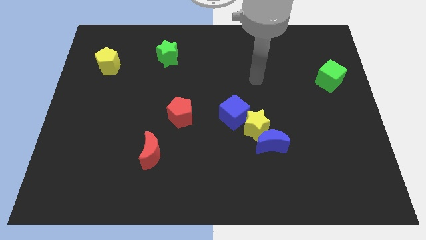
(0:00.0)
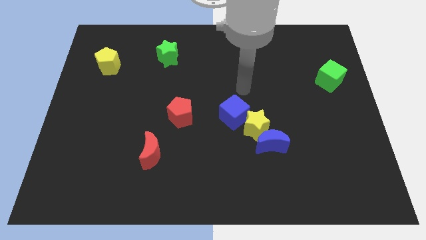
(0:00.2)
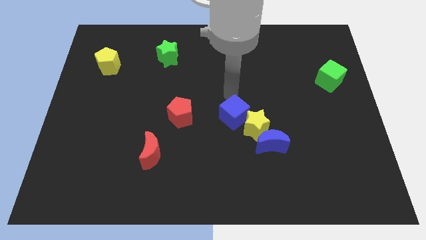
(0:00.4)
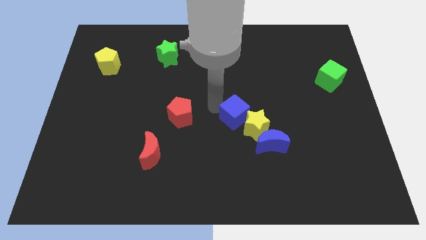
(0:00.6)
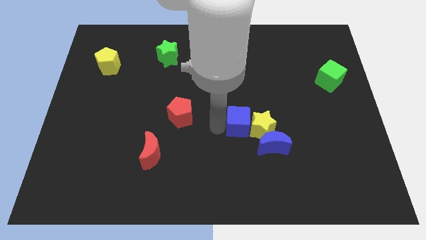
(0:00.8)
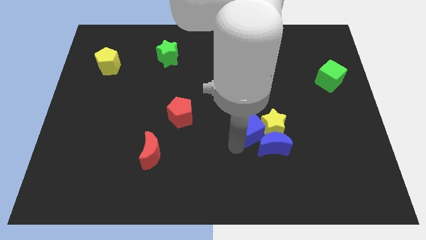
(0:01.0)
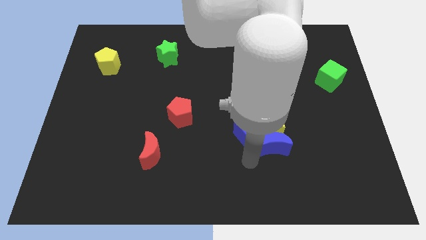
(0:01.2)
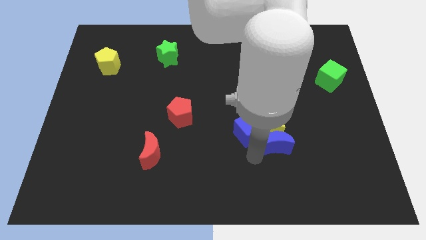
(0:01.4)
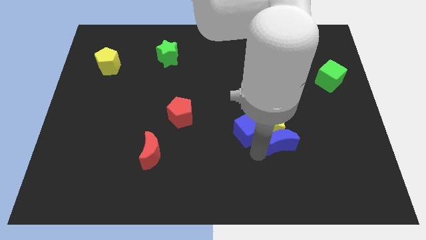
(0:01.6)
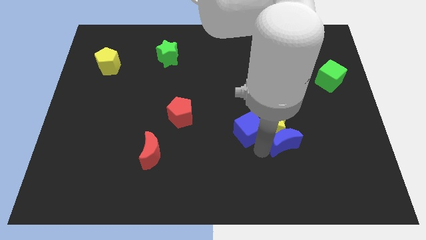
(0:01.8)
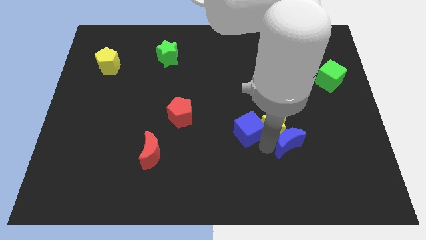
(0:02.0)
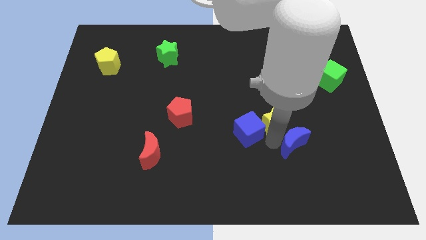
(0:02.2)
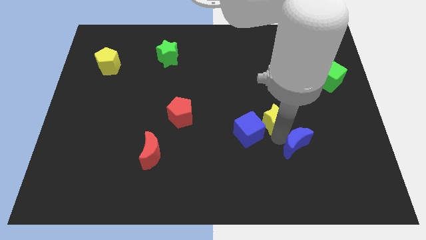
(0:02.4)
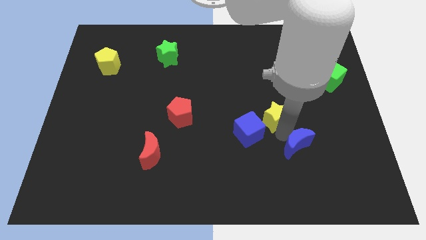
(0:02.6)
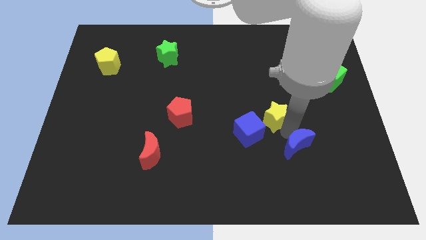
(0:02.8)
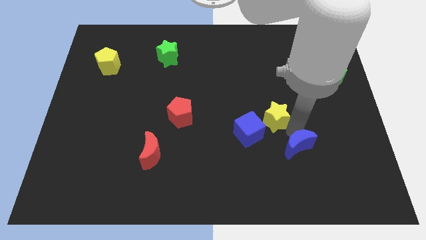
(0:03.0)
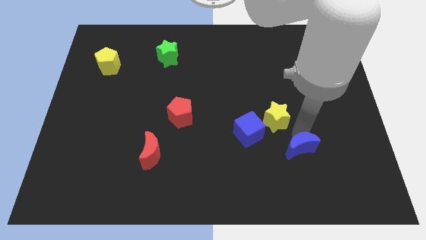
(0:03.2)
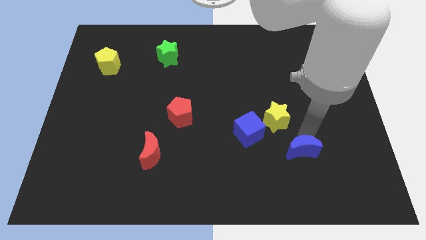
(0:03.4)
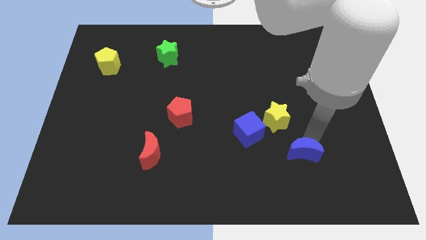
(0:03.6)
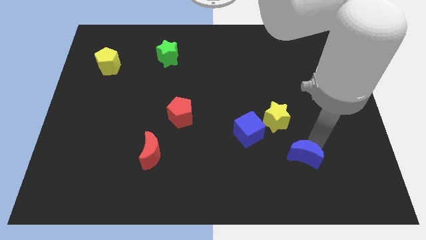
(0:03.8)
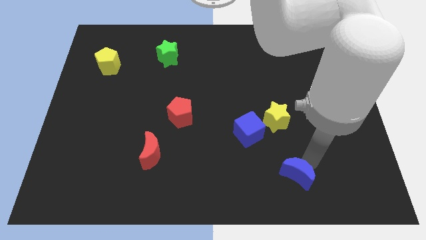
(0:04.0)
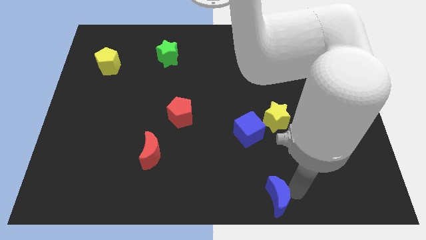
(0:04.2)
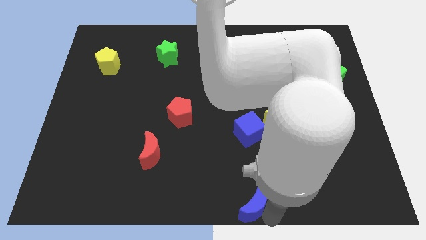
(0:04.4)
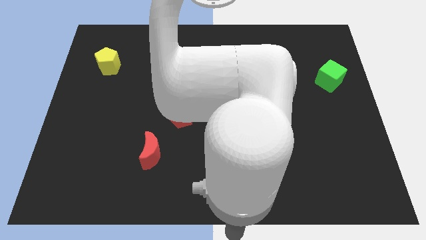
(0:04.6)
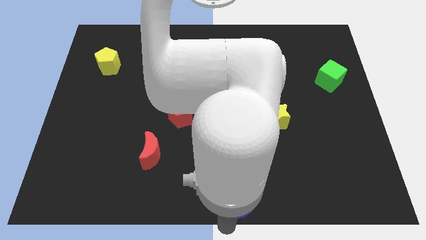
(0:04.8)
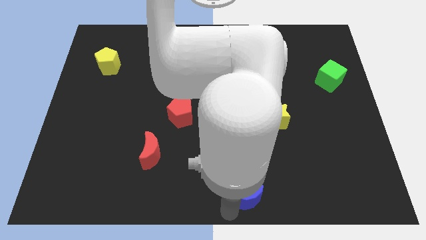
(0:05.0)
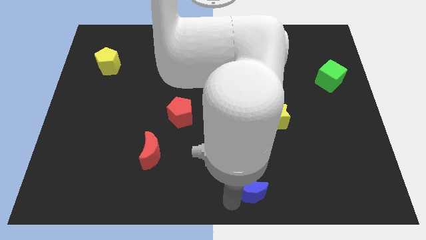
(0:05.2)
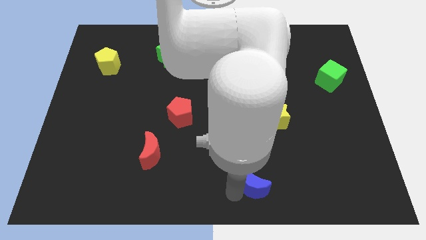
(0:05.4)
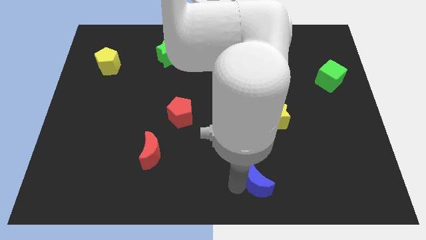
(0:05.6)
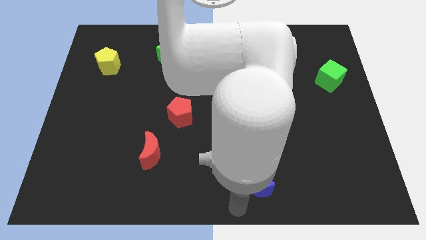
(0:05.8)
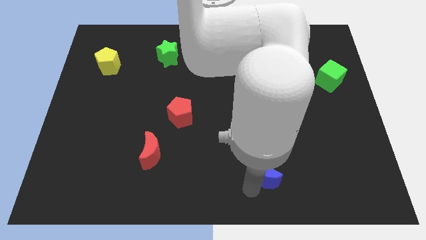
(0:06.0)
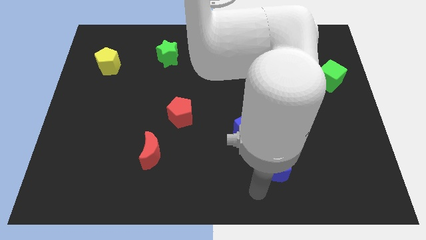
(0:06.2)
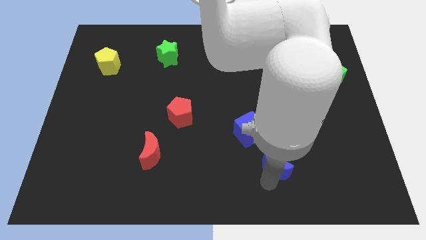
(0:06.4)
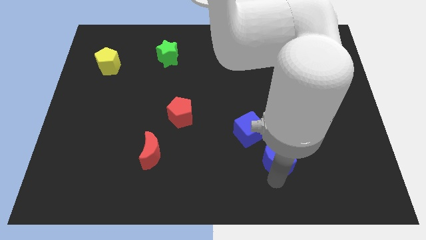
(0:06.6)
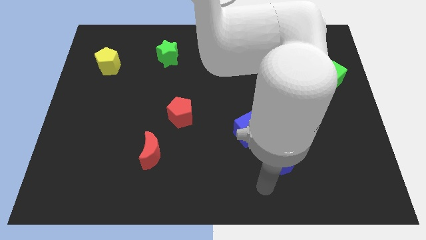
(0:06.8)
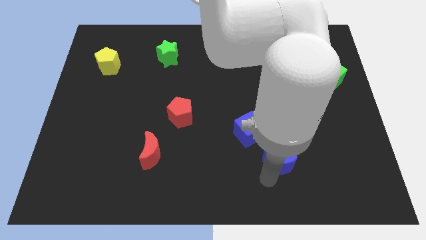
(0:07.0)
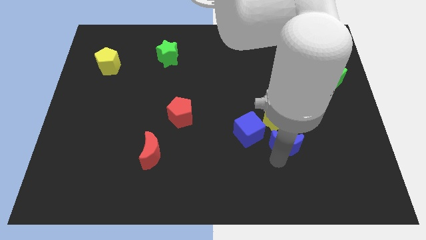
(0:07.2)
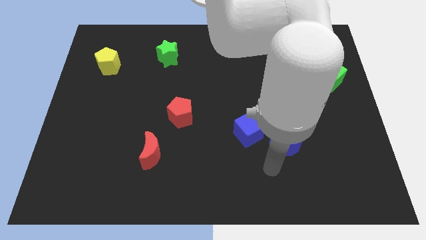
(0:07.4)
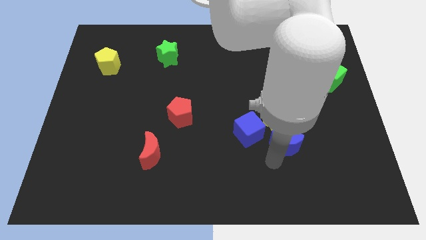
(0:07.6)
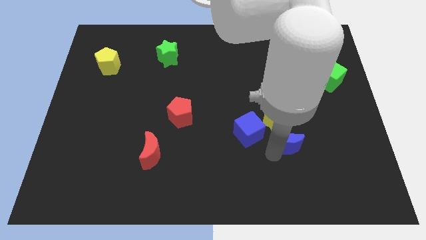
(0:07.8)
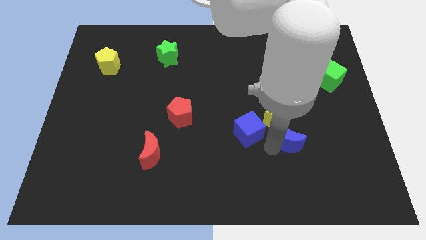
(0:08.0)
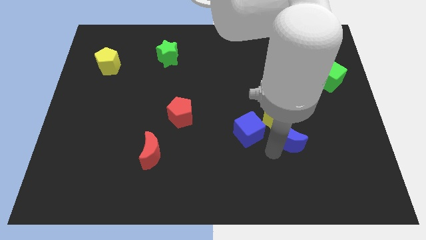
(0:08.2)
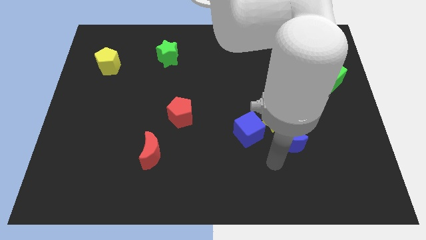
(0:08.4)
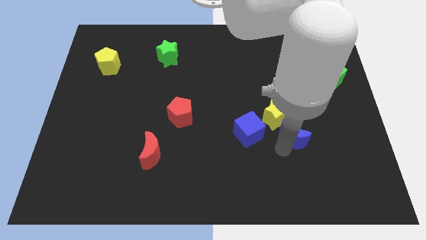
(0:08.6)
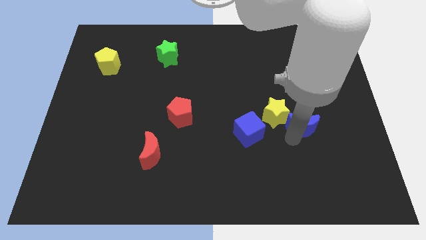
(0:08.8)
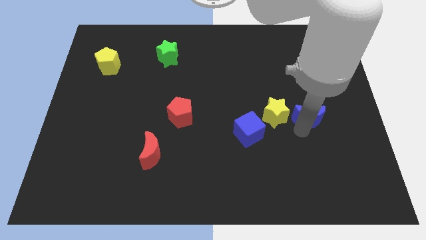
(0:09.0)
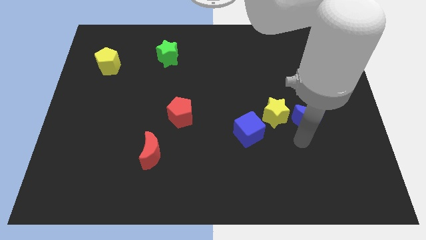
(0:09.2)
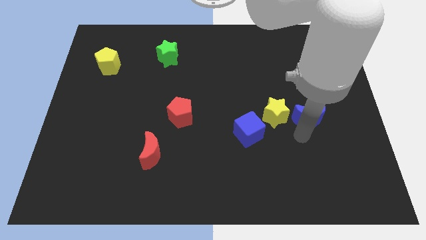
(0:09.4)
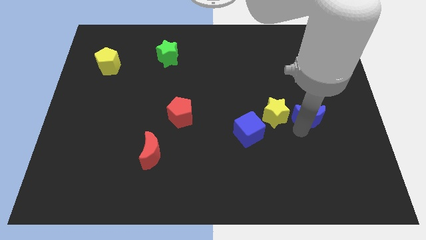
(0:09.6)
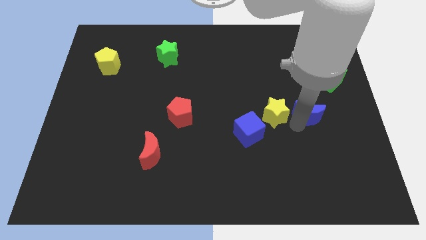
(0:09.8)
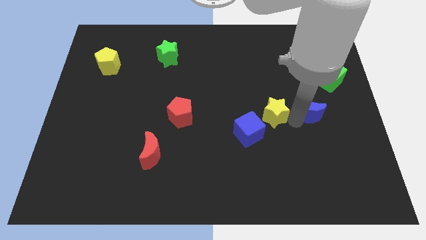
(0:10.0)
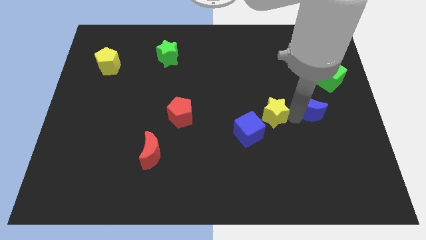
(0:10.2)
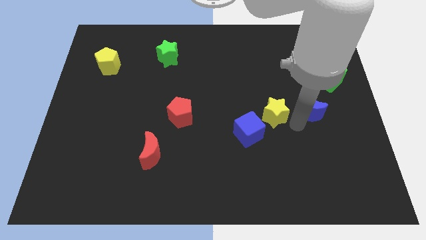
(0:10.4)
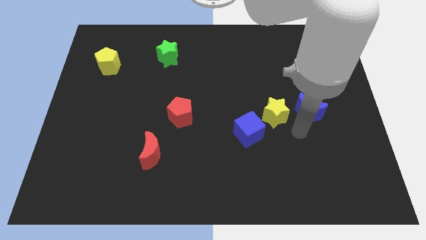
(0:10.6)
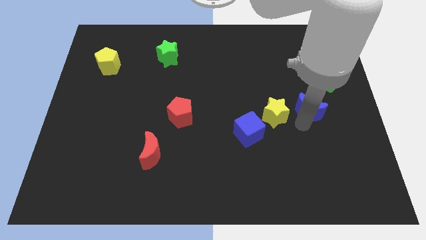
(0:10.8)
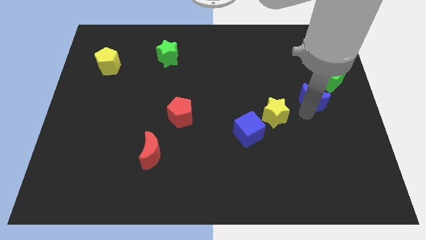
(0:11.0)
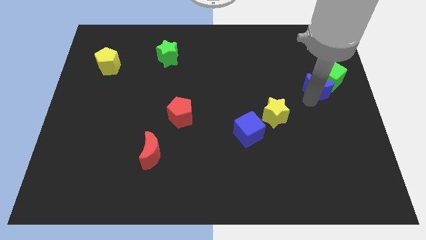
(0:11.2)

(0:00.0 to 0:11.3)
move the blue moon close to the green cube

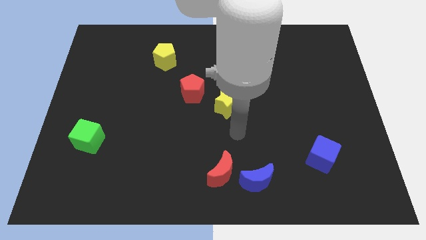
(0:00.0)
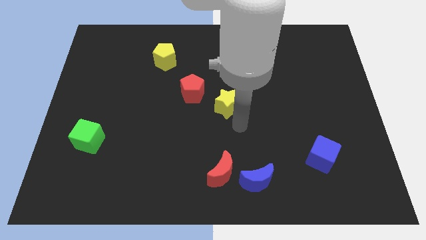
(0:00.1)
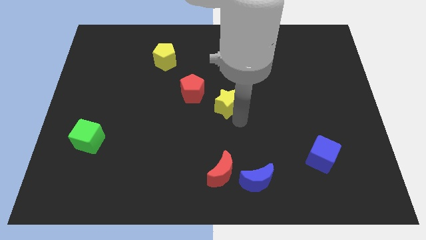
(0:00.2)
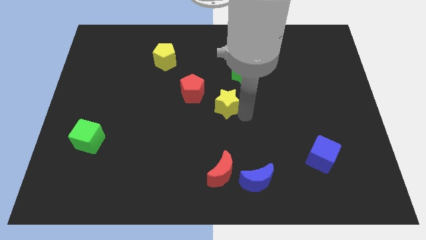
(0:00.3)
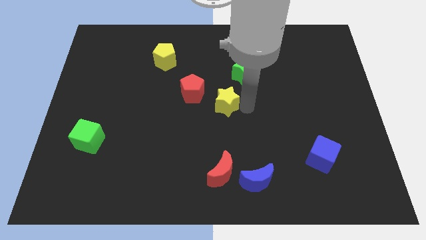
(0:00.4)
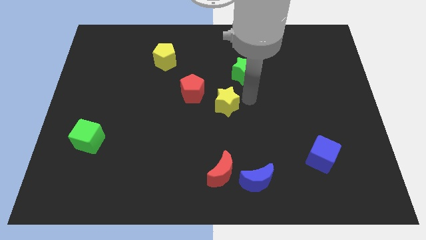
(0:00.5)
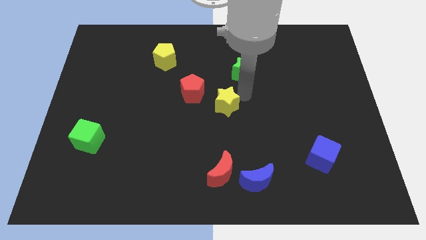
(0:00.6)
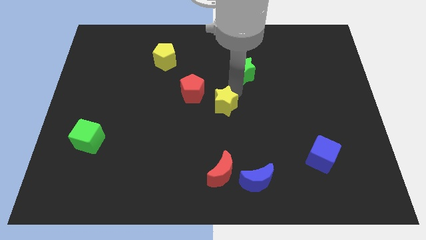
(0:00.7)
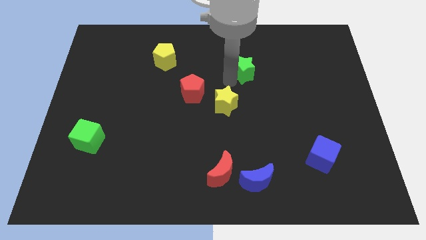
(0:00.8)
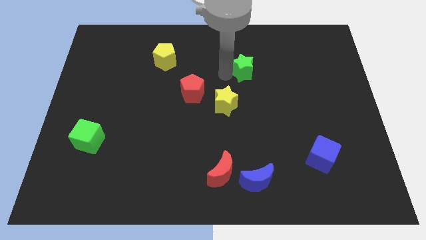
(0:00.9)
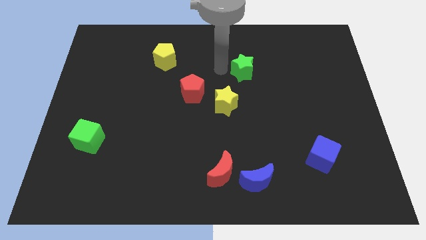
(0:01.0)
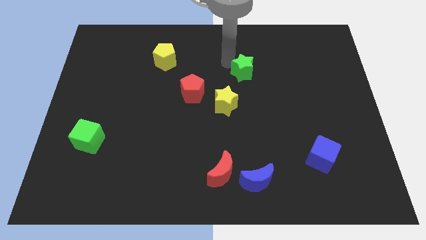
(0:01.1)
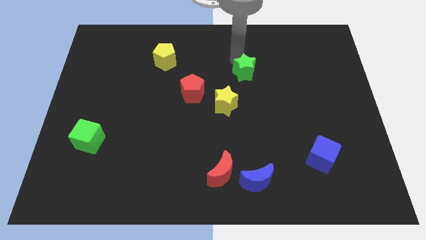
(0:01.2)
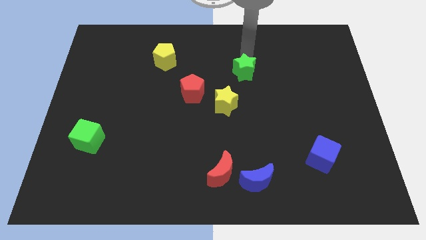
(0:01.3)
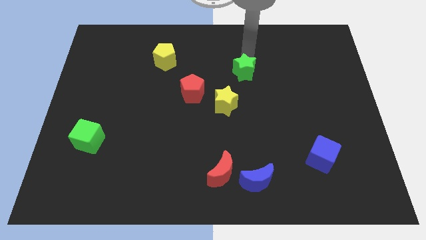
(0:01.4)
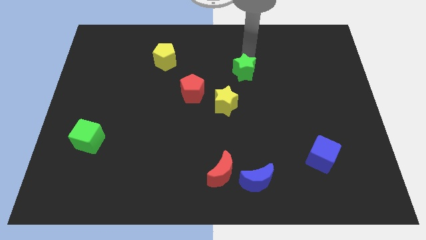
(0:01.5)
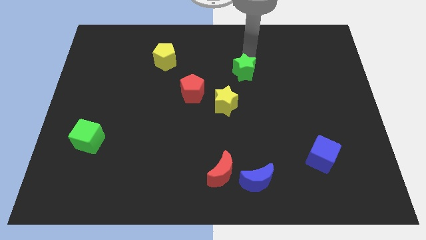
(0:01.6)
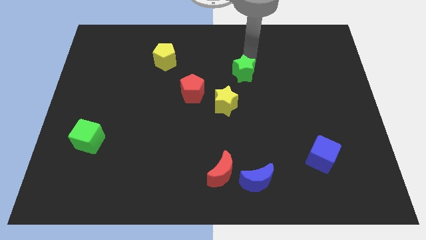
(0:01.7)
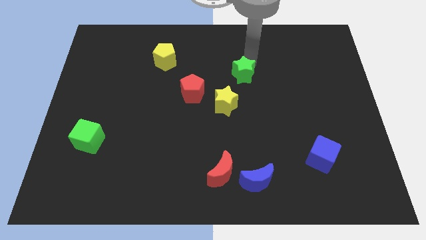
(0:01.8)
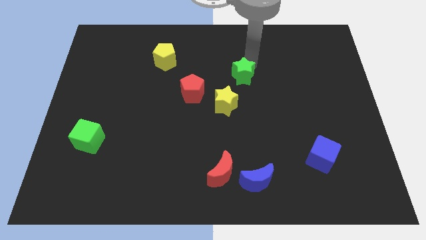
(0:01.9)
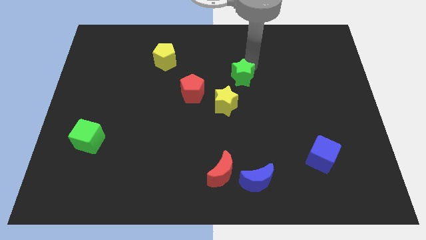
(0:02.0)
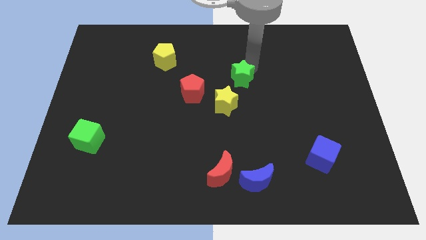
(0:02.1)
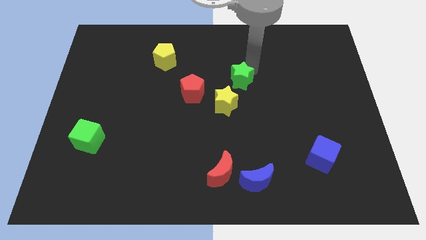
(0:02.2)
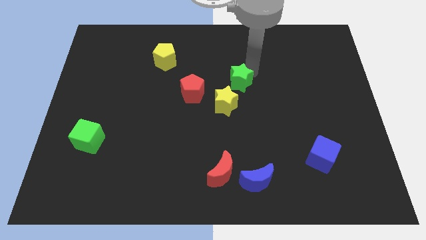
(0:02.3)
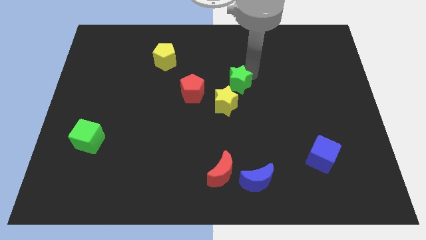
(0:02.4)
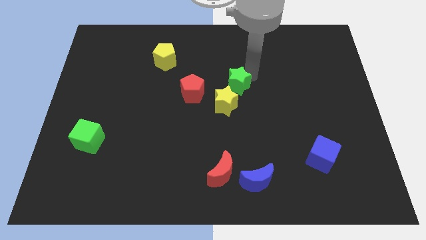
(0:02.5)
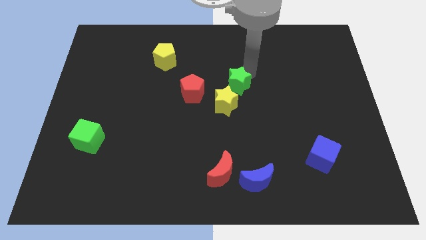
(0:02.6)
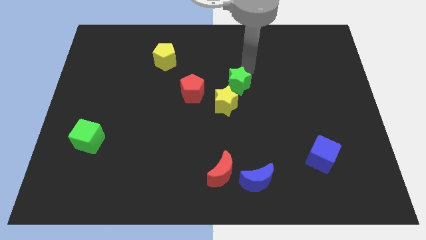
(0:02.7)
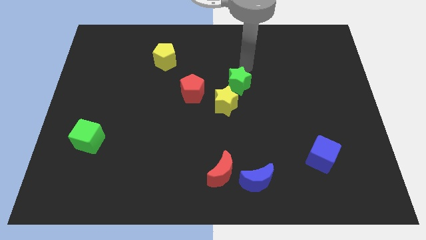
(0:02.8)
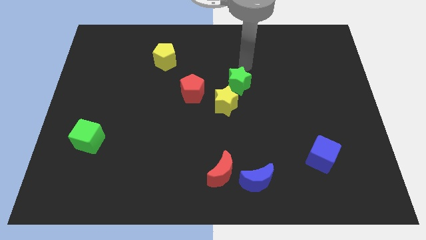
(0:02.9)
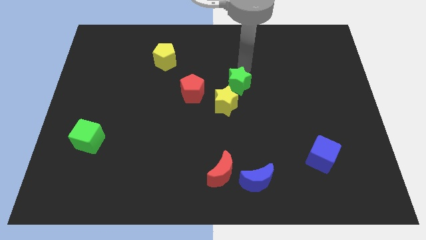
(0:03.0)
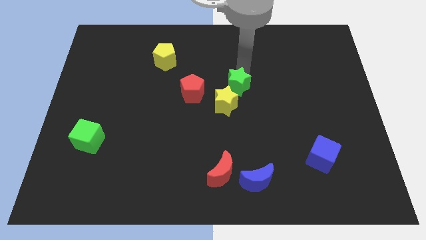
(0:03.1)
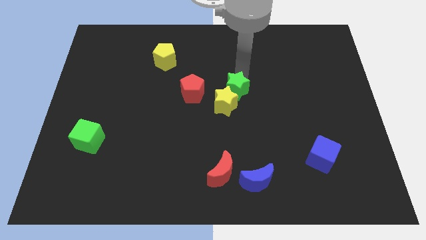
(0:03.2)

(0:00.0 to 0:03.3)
slide the green star to the yellow star
